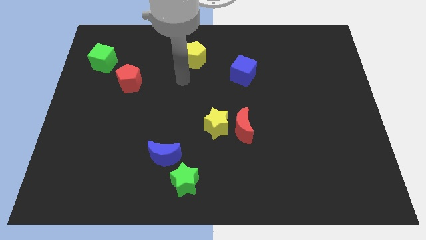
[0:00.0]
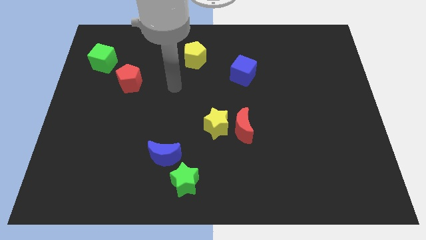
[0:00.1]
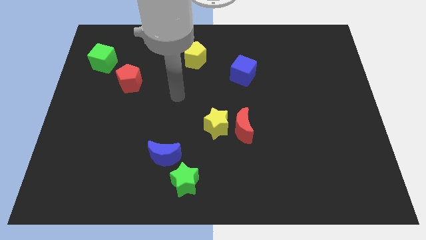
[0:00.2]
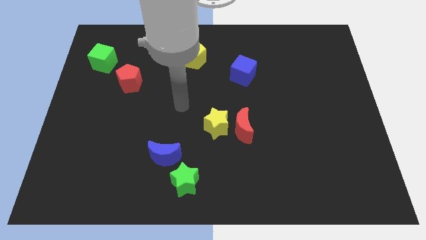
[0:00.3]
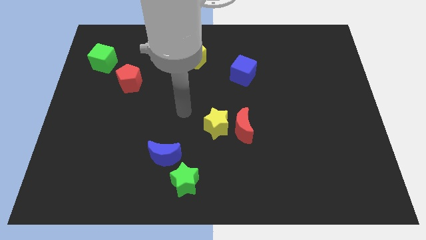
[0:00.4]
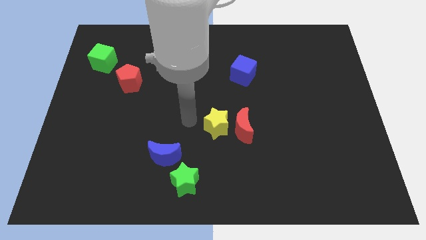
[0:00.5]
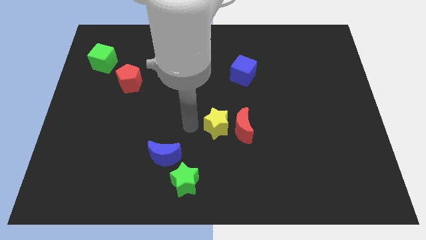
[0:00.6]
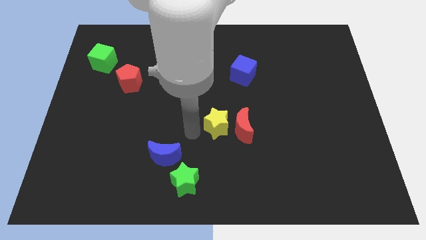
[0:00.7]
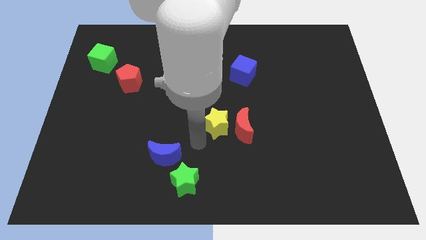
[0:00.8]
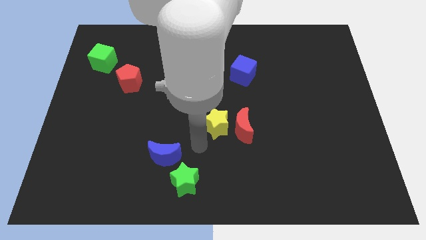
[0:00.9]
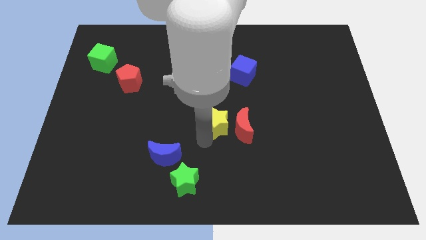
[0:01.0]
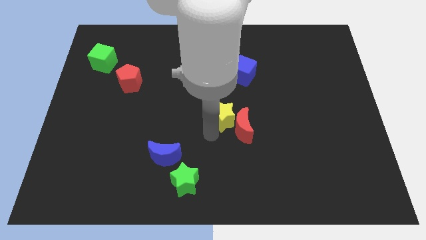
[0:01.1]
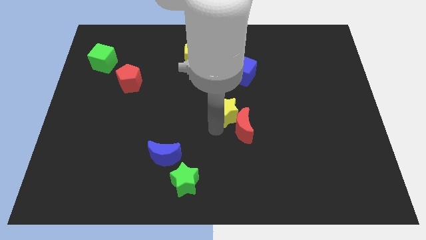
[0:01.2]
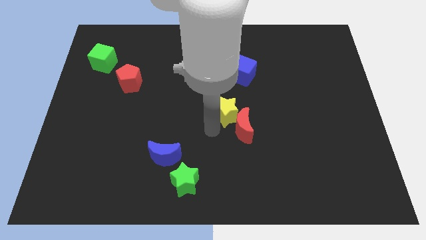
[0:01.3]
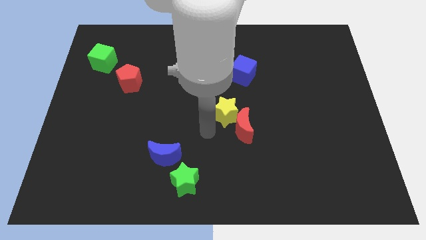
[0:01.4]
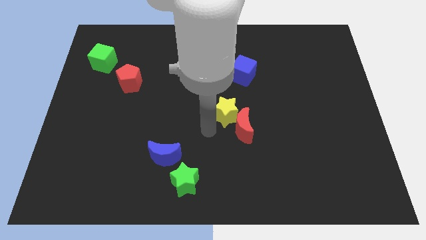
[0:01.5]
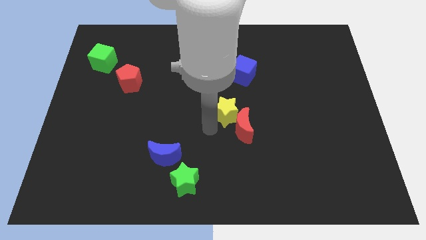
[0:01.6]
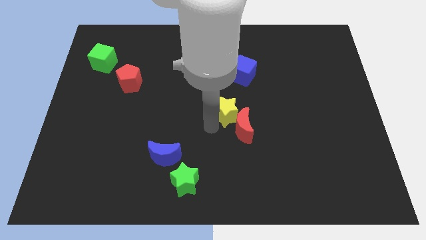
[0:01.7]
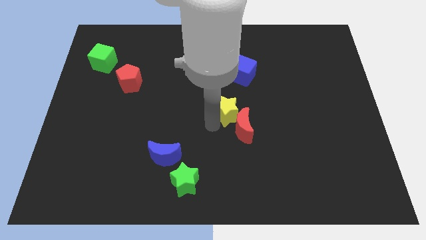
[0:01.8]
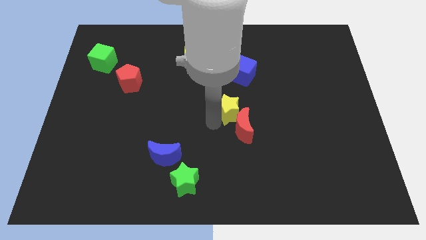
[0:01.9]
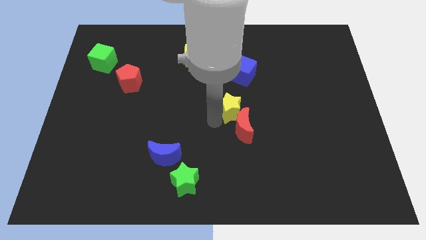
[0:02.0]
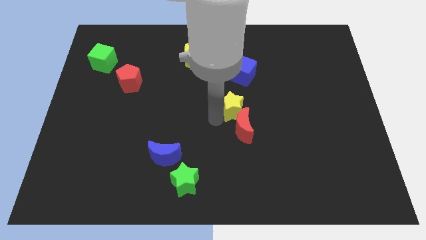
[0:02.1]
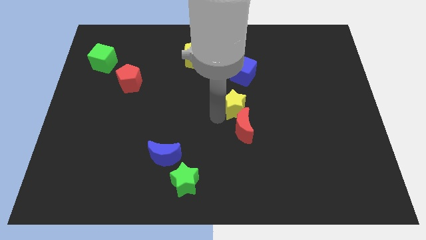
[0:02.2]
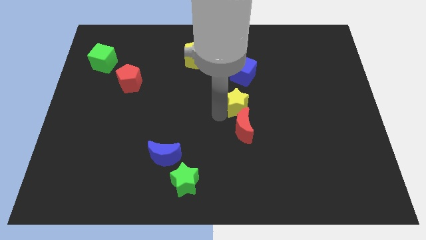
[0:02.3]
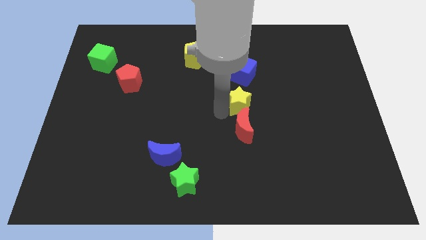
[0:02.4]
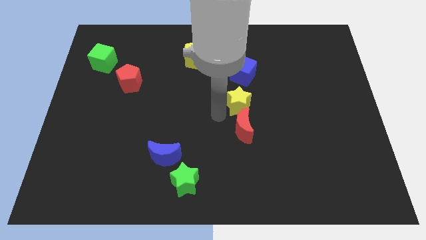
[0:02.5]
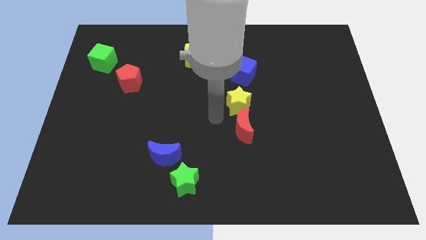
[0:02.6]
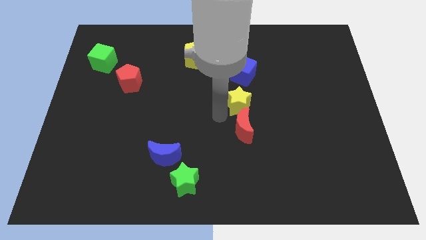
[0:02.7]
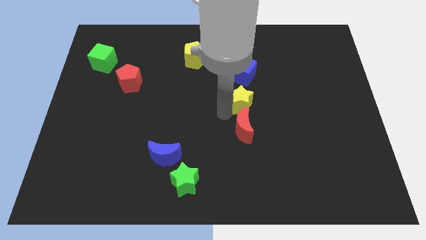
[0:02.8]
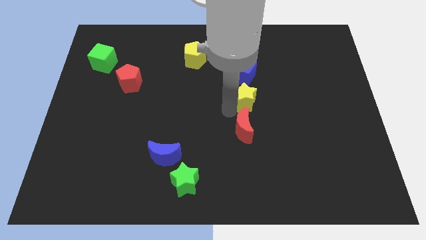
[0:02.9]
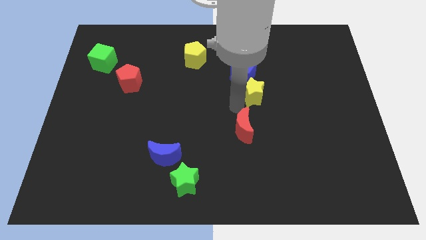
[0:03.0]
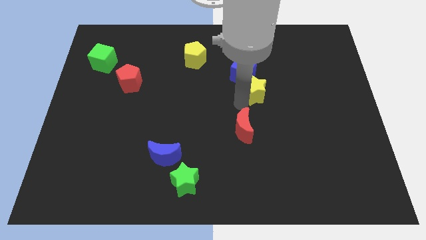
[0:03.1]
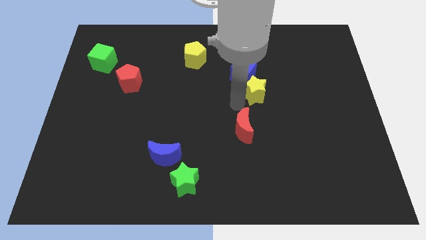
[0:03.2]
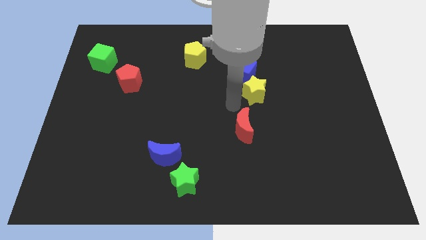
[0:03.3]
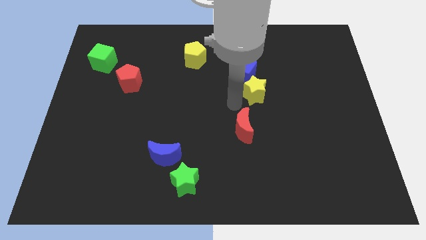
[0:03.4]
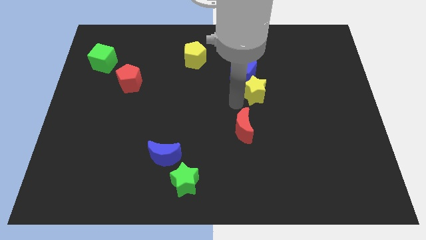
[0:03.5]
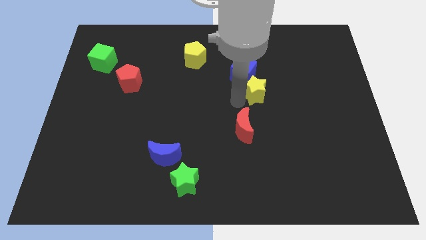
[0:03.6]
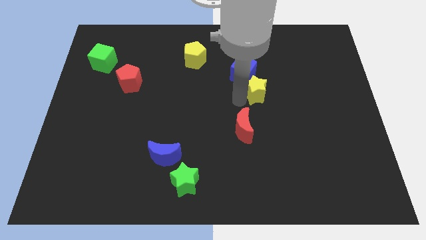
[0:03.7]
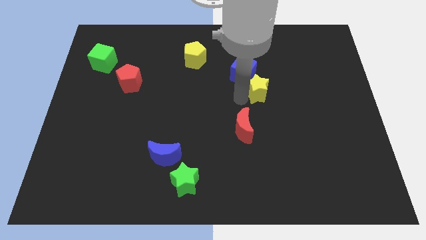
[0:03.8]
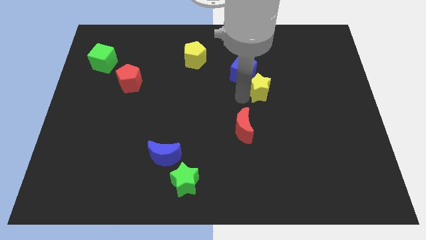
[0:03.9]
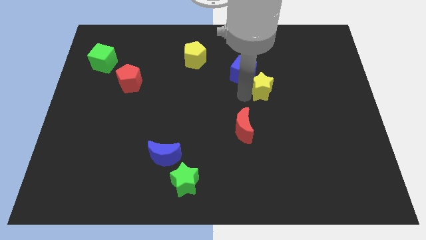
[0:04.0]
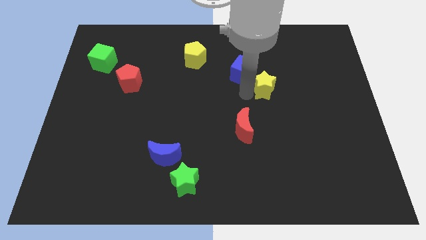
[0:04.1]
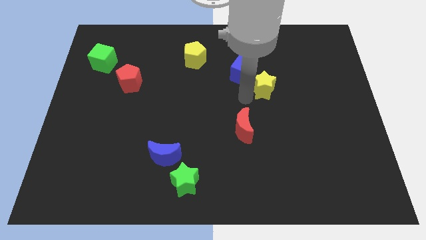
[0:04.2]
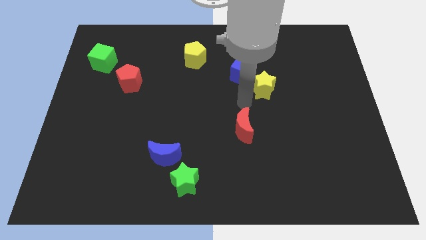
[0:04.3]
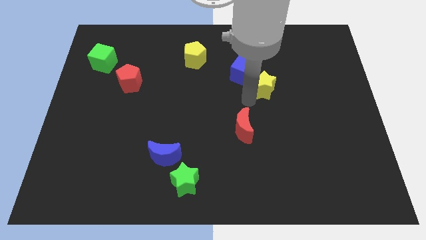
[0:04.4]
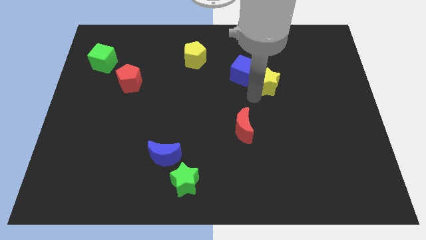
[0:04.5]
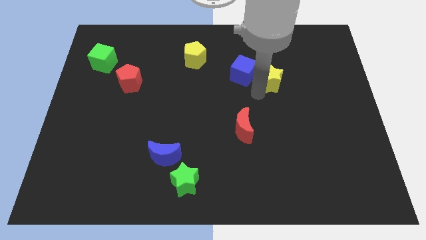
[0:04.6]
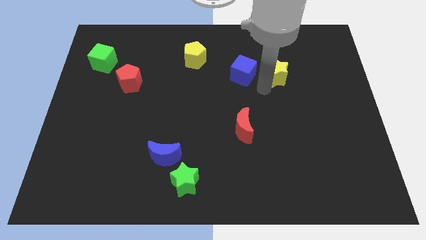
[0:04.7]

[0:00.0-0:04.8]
move the yellow star diagonally upwards and to the right

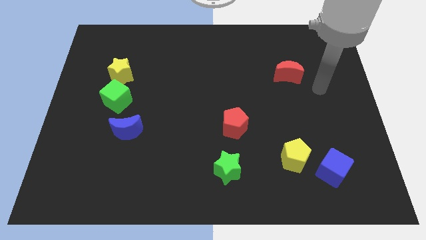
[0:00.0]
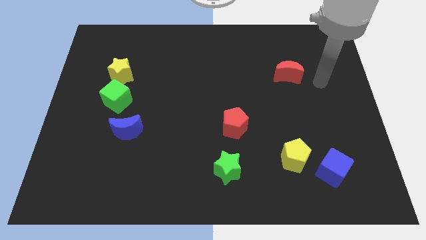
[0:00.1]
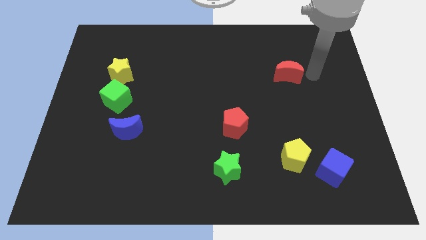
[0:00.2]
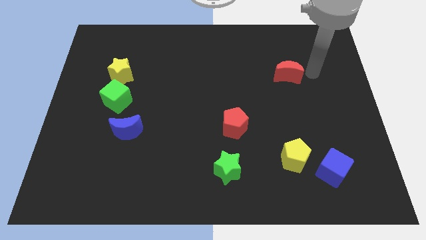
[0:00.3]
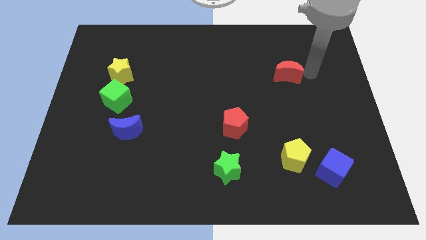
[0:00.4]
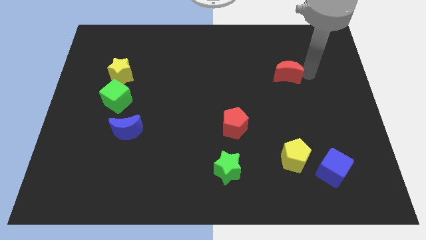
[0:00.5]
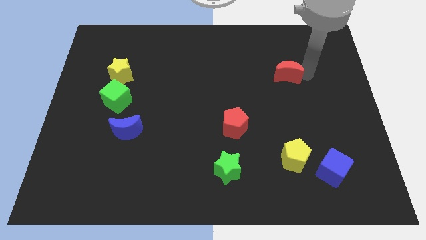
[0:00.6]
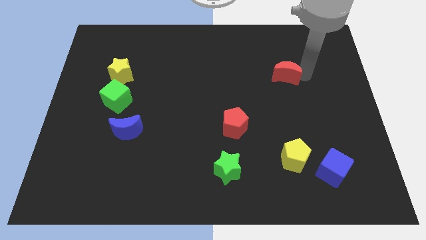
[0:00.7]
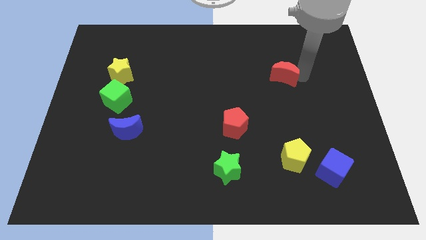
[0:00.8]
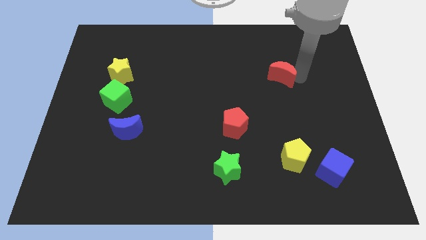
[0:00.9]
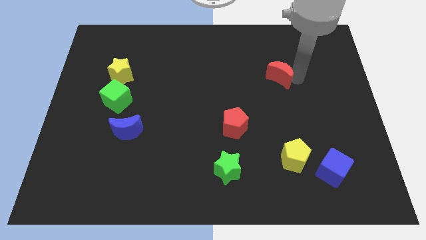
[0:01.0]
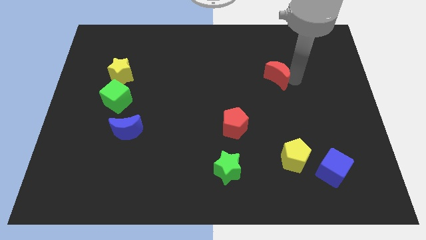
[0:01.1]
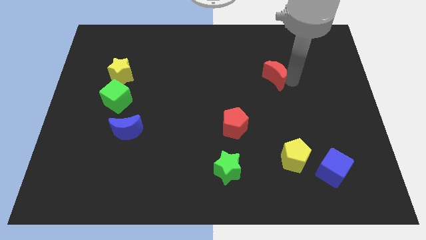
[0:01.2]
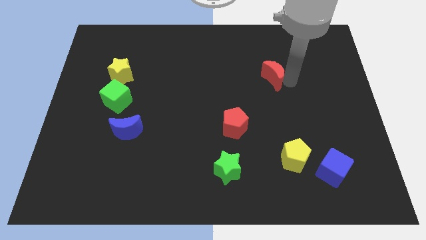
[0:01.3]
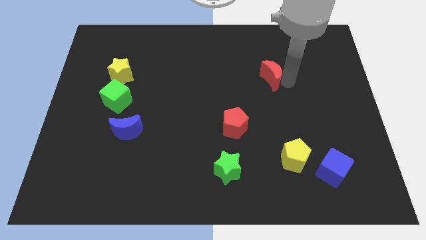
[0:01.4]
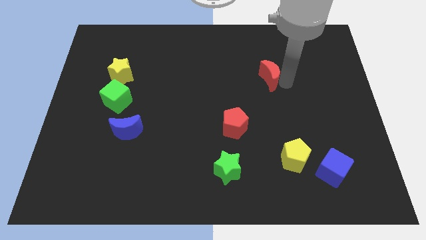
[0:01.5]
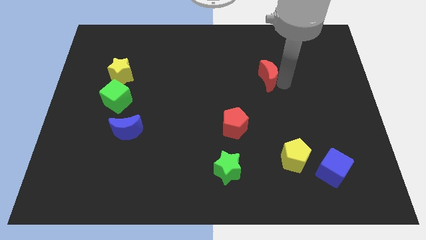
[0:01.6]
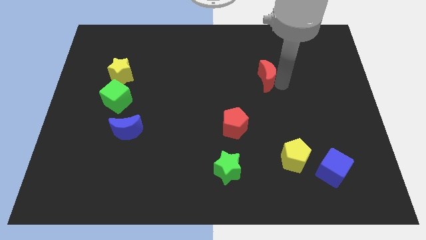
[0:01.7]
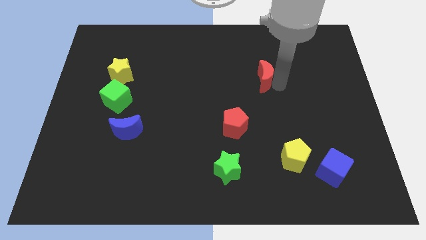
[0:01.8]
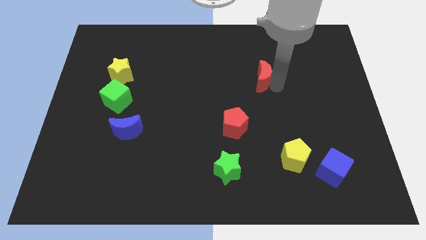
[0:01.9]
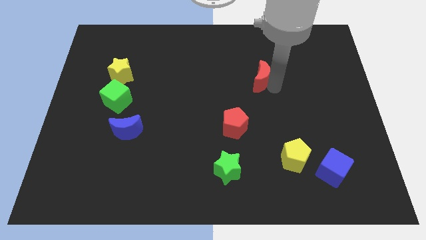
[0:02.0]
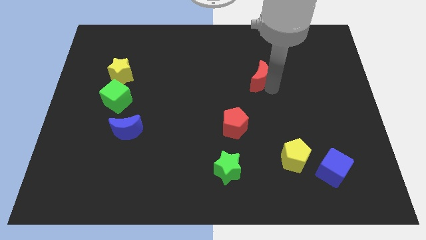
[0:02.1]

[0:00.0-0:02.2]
move the red moon left a little bit

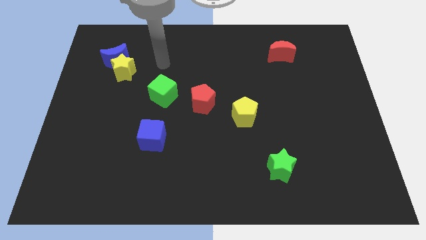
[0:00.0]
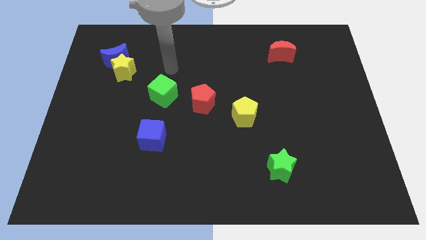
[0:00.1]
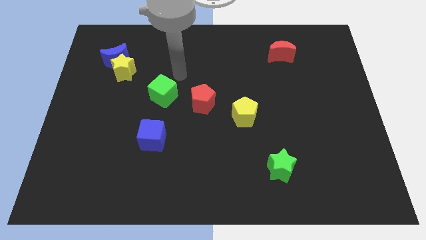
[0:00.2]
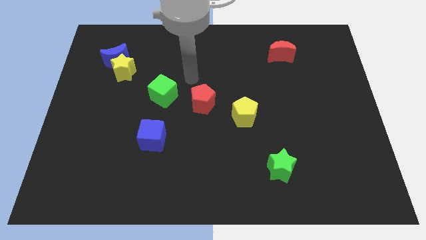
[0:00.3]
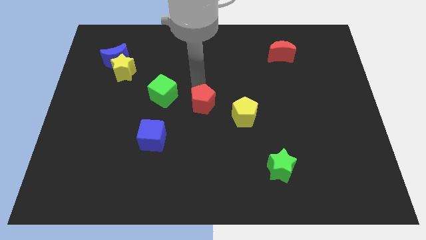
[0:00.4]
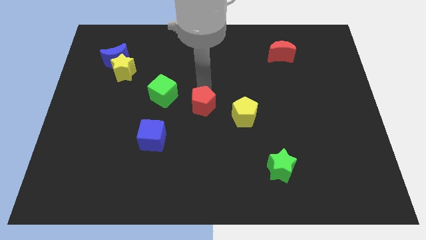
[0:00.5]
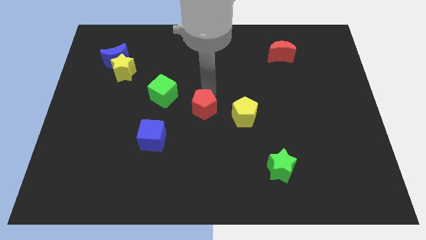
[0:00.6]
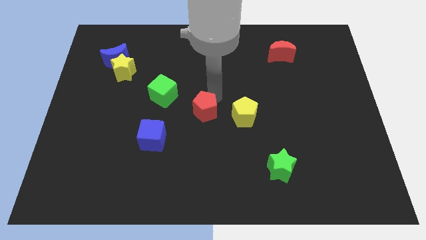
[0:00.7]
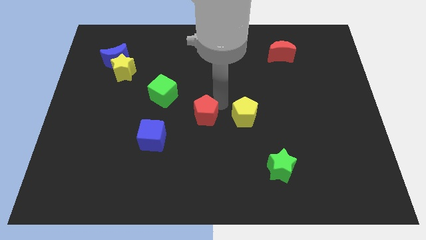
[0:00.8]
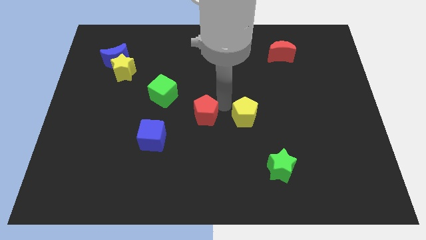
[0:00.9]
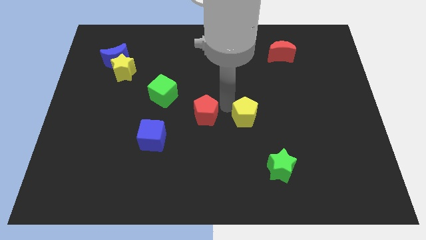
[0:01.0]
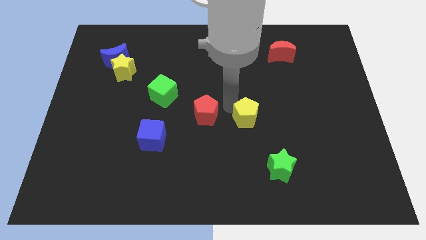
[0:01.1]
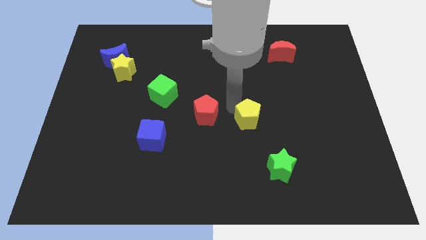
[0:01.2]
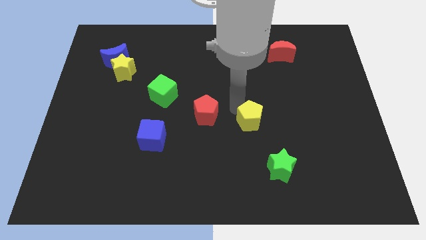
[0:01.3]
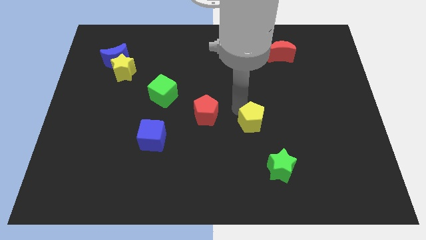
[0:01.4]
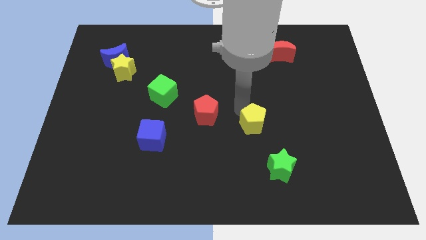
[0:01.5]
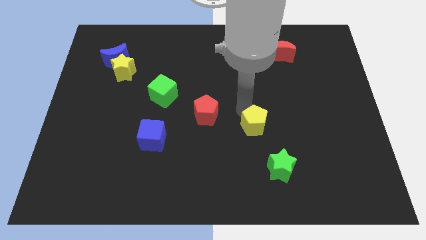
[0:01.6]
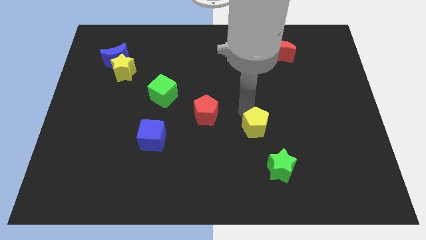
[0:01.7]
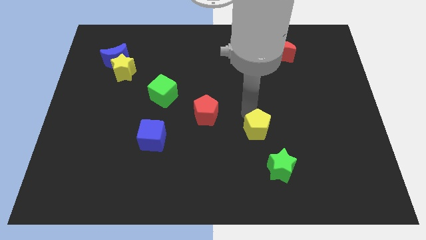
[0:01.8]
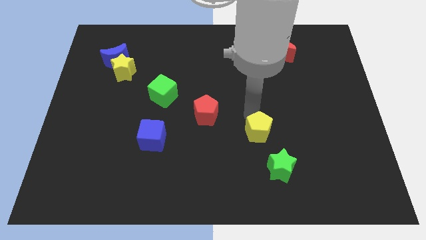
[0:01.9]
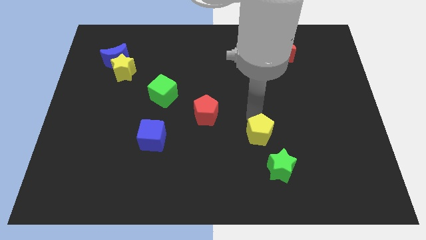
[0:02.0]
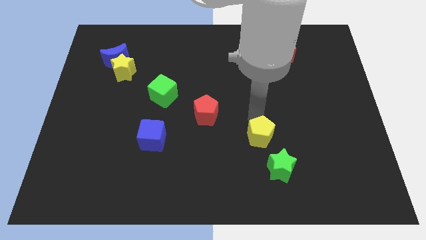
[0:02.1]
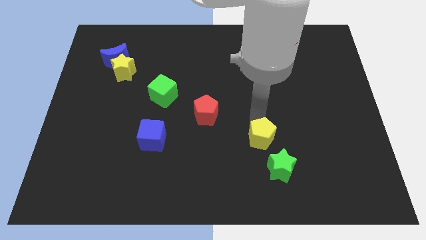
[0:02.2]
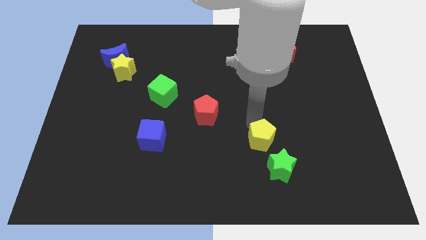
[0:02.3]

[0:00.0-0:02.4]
push the yellow pentagon diagonally downwards and to the right a little bit
